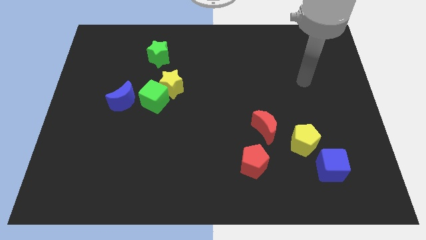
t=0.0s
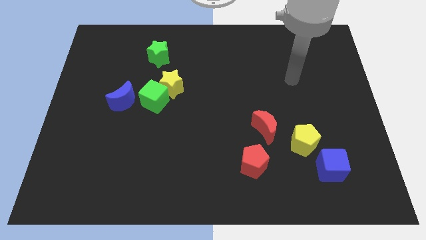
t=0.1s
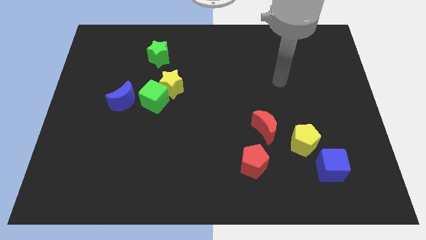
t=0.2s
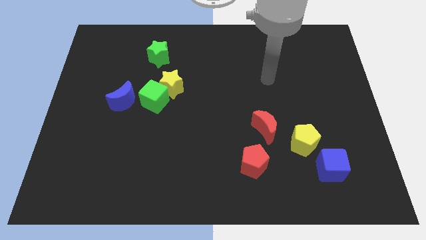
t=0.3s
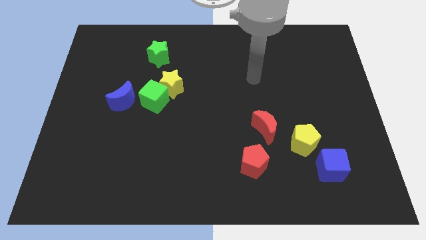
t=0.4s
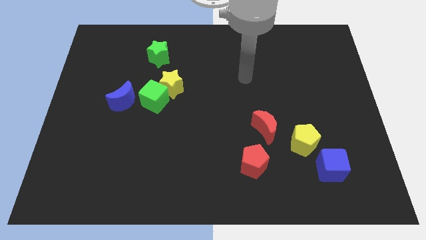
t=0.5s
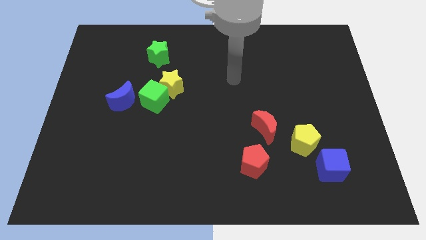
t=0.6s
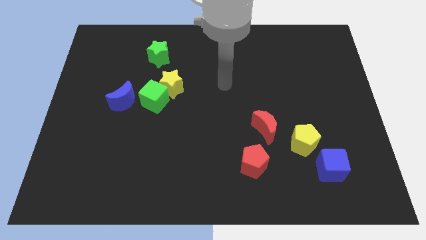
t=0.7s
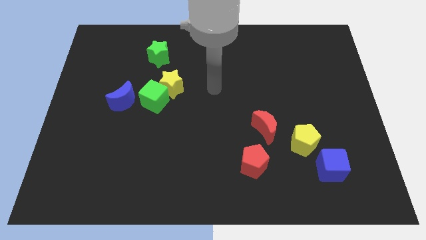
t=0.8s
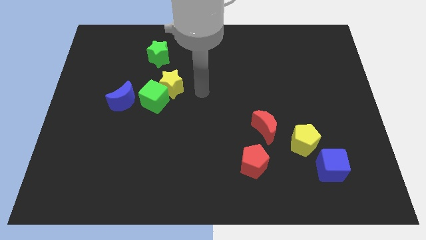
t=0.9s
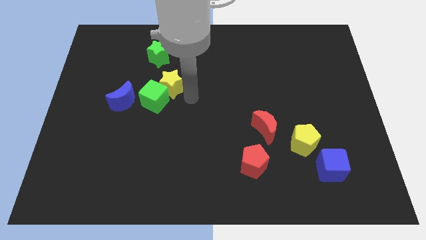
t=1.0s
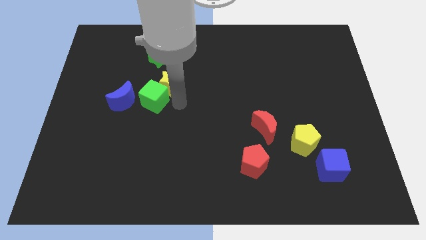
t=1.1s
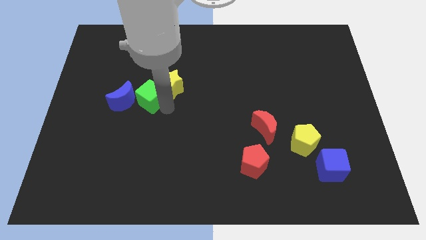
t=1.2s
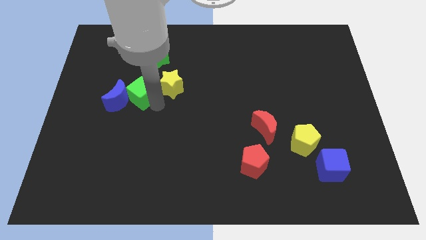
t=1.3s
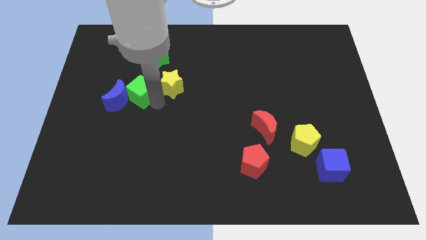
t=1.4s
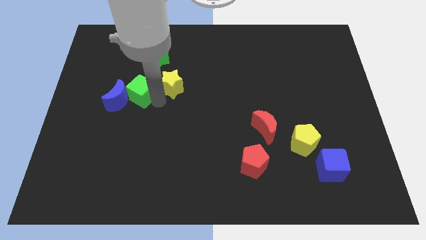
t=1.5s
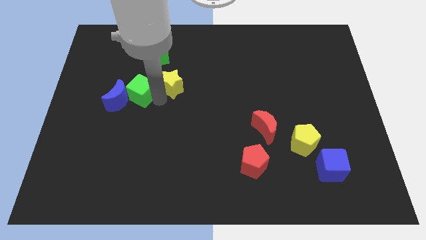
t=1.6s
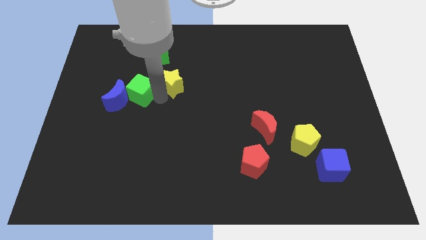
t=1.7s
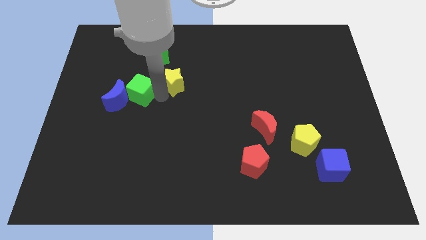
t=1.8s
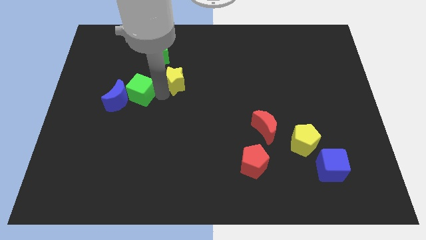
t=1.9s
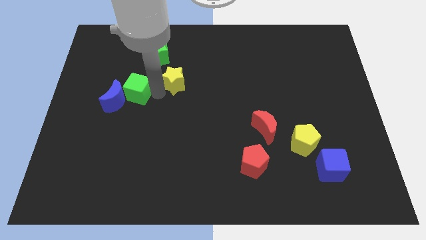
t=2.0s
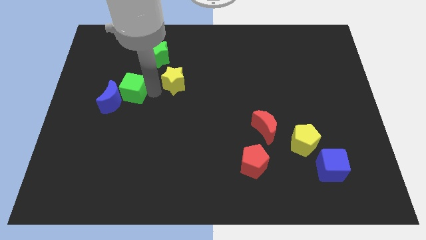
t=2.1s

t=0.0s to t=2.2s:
move the yellow star away from the green cube

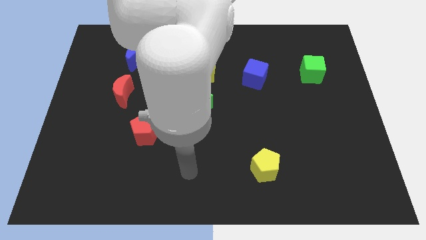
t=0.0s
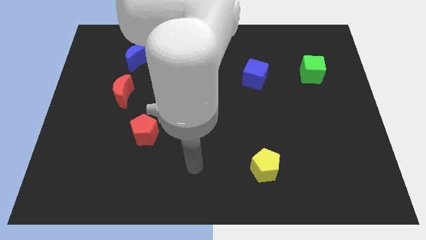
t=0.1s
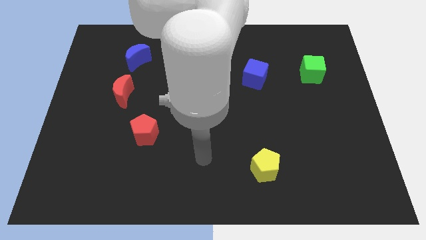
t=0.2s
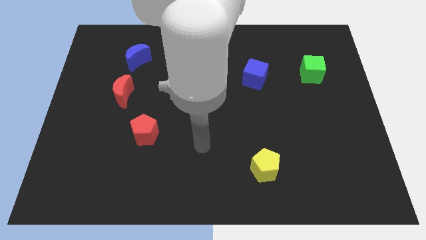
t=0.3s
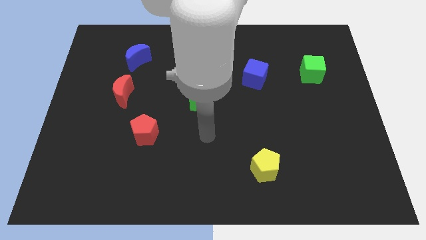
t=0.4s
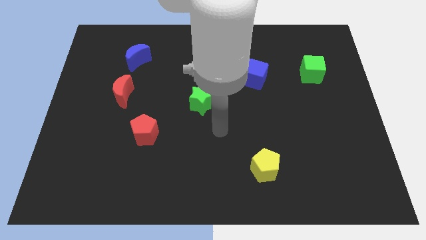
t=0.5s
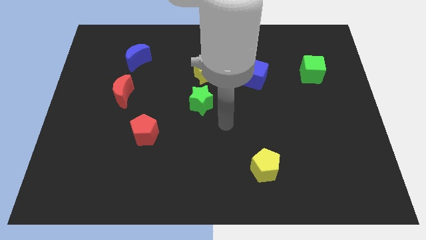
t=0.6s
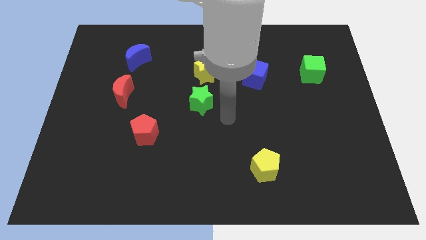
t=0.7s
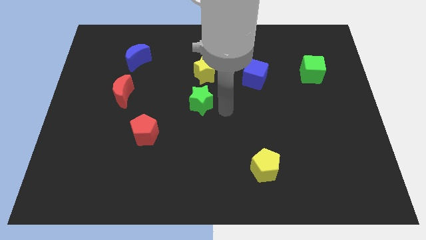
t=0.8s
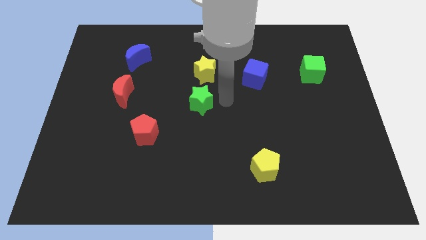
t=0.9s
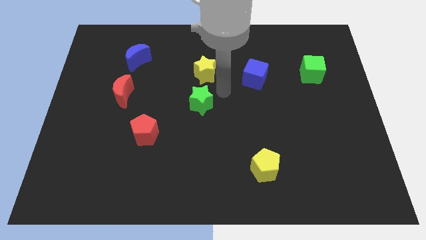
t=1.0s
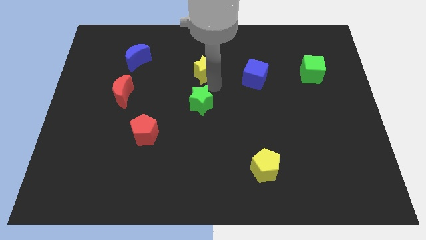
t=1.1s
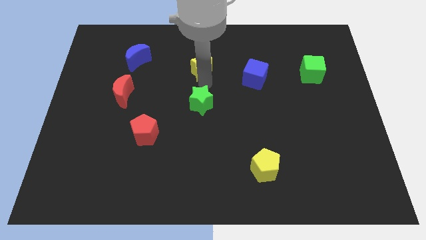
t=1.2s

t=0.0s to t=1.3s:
pull the green star apart from the yellow star

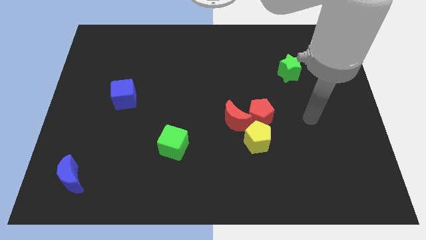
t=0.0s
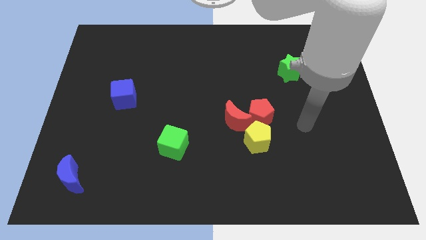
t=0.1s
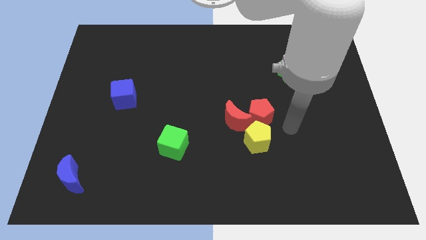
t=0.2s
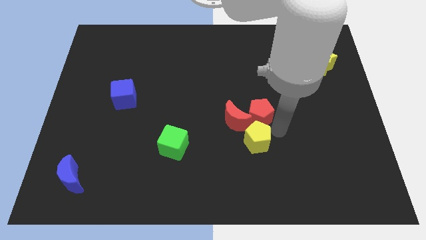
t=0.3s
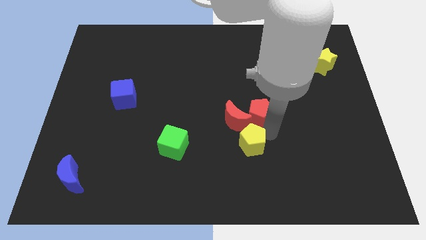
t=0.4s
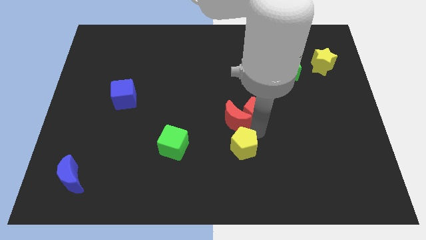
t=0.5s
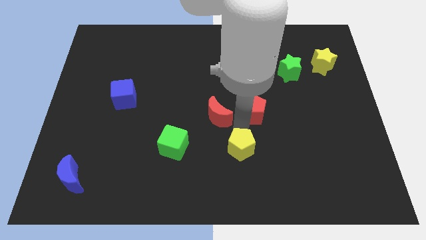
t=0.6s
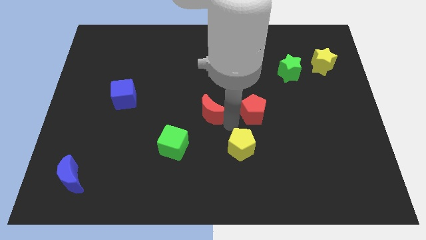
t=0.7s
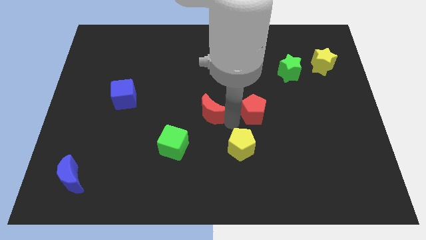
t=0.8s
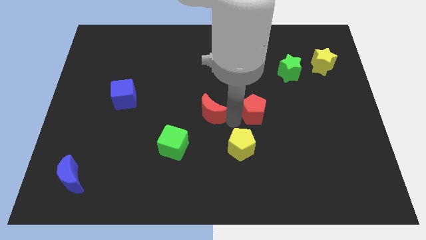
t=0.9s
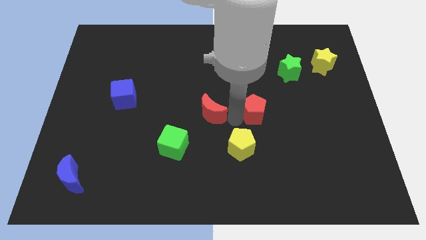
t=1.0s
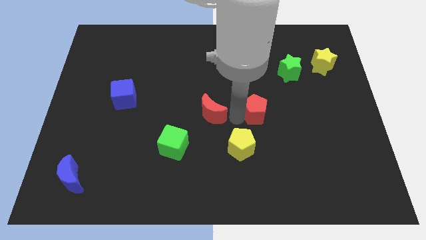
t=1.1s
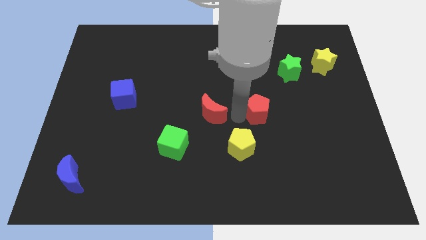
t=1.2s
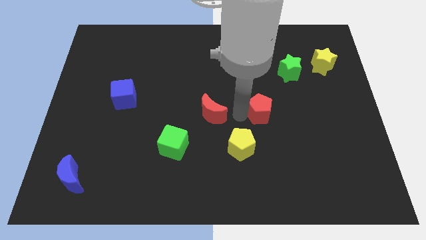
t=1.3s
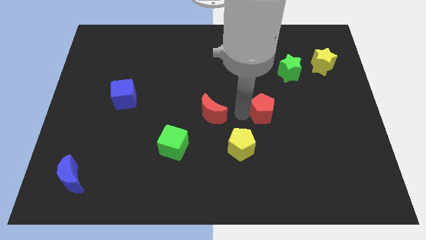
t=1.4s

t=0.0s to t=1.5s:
separate the red pentagon from the red moon and yellow pentagon

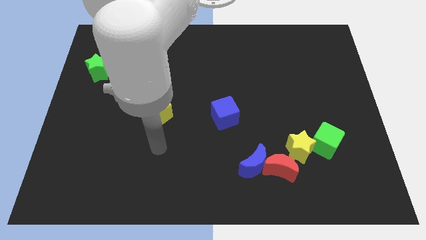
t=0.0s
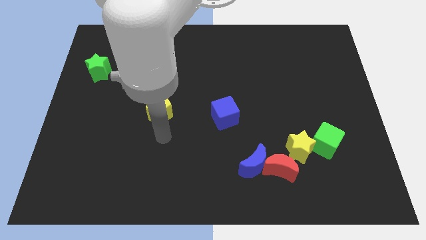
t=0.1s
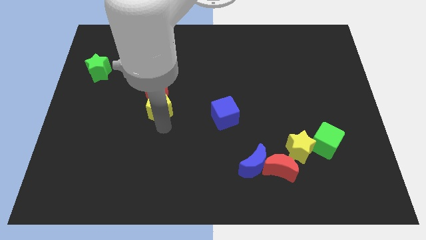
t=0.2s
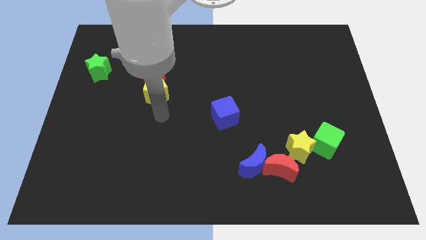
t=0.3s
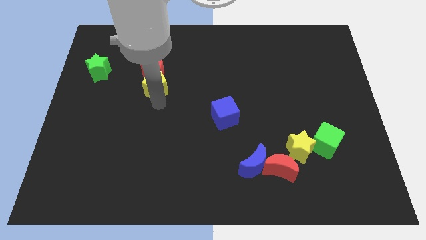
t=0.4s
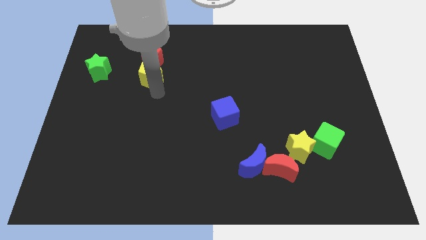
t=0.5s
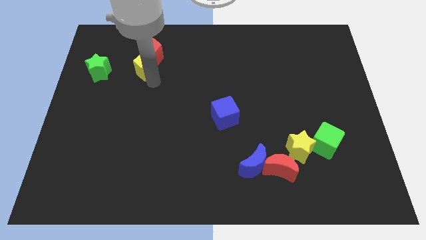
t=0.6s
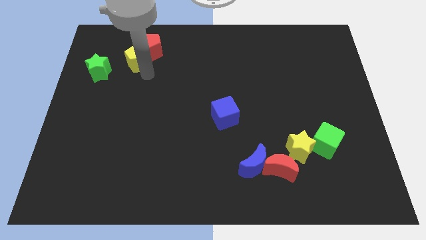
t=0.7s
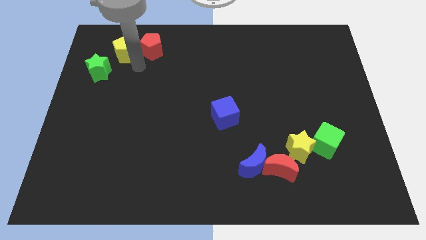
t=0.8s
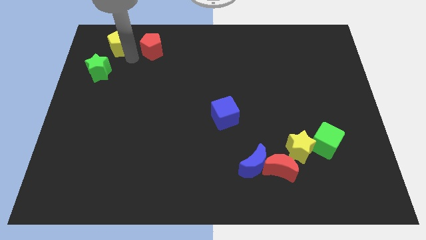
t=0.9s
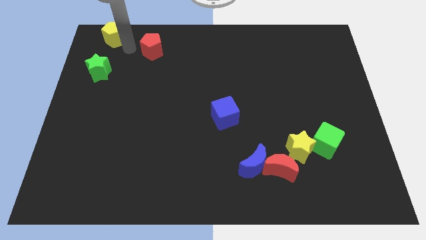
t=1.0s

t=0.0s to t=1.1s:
move the red pentagon away from the yellow pentagon

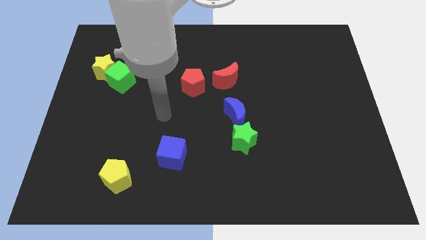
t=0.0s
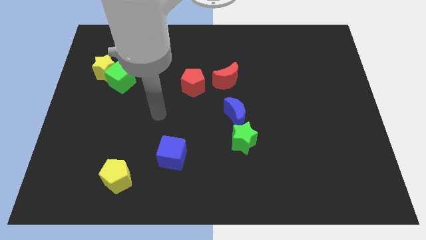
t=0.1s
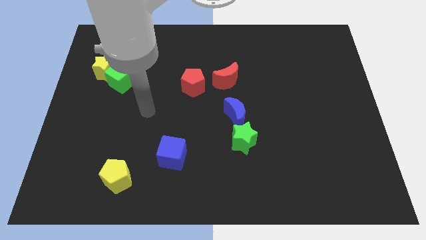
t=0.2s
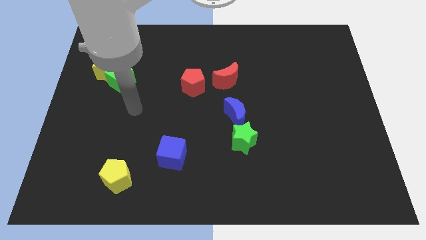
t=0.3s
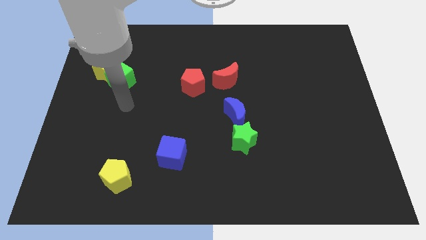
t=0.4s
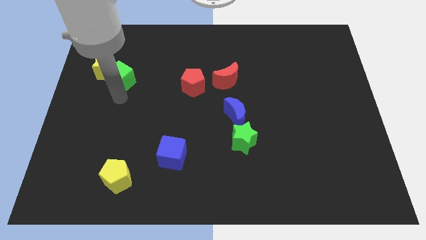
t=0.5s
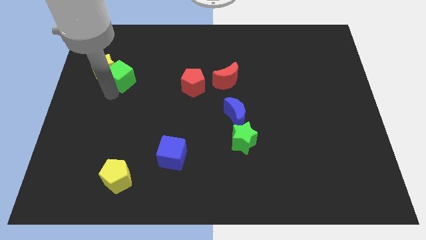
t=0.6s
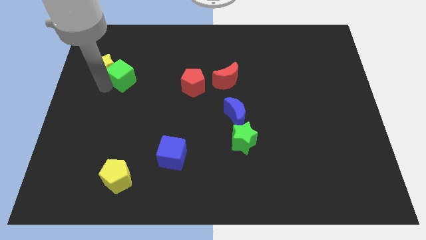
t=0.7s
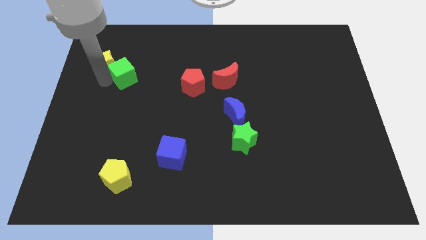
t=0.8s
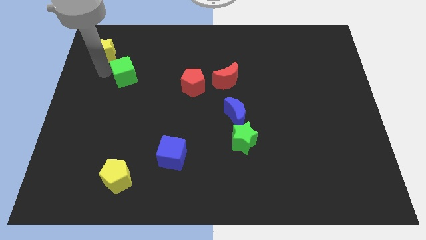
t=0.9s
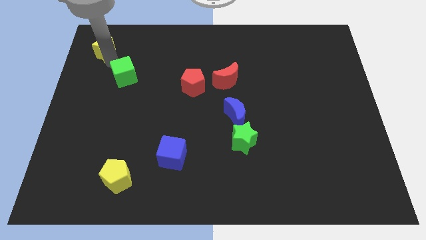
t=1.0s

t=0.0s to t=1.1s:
separate the green cube from the yellow star

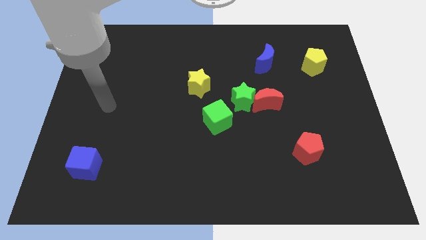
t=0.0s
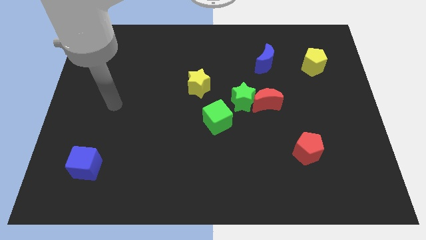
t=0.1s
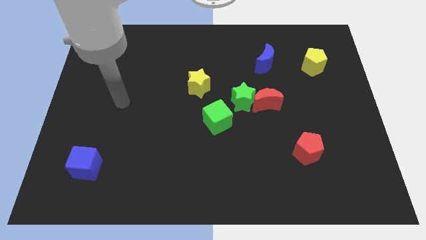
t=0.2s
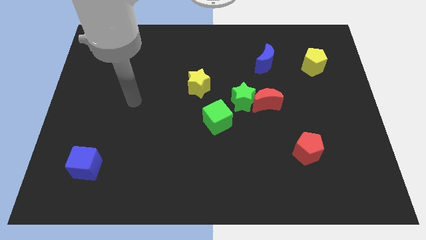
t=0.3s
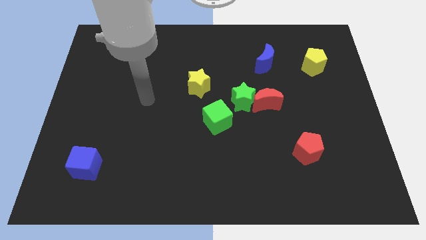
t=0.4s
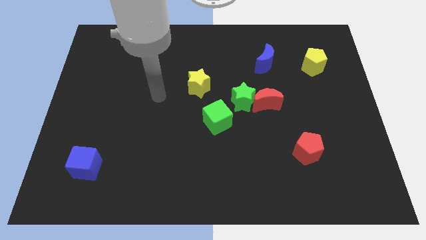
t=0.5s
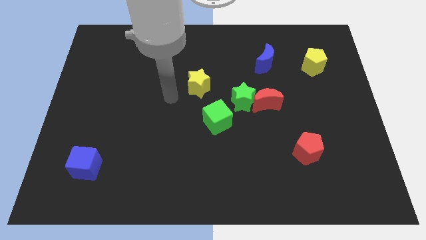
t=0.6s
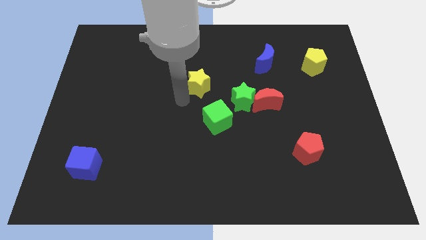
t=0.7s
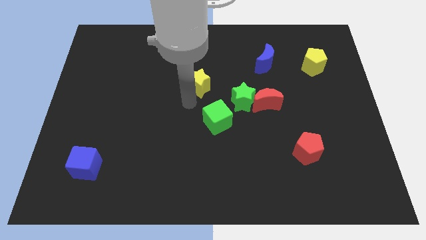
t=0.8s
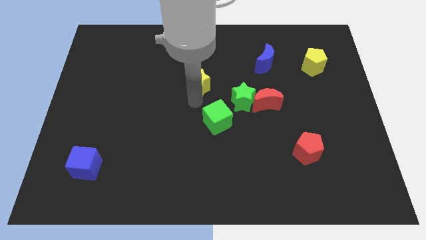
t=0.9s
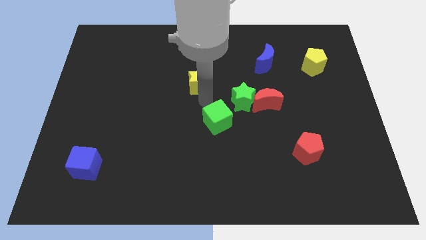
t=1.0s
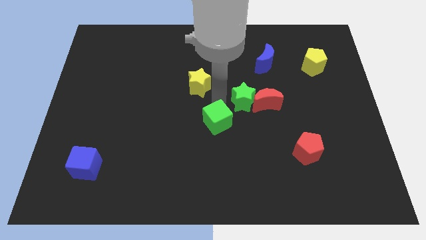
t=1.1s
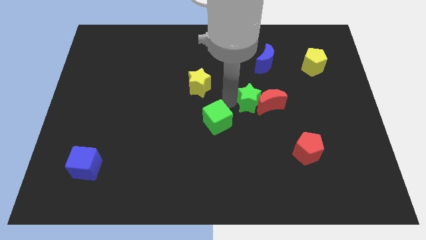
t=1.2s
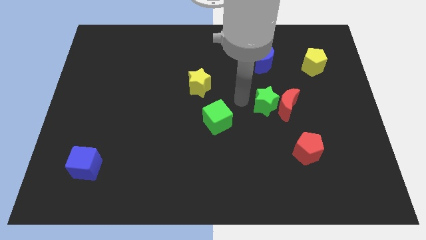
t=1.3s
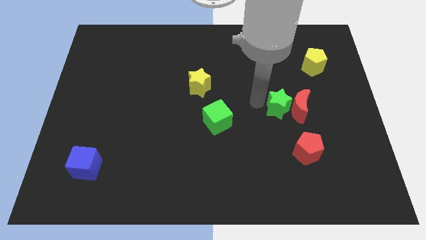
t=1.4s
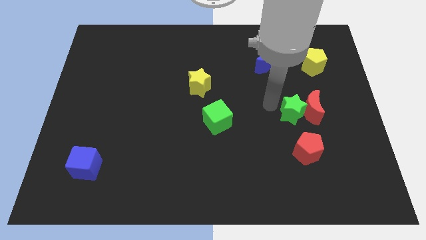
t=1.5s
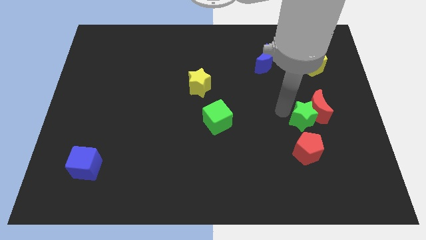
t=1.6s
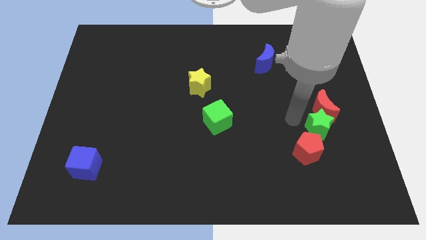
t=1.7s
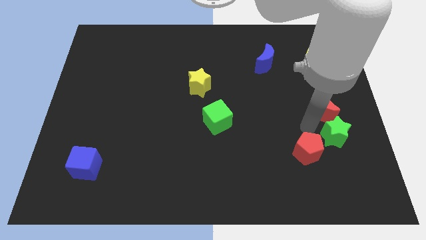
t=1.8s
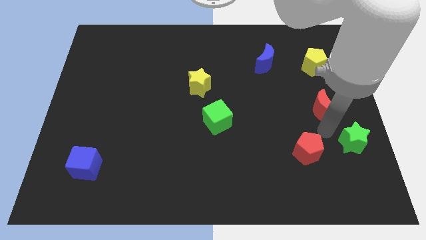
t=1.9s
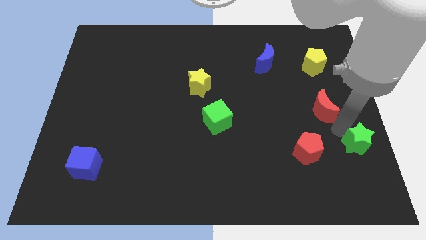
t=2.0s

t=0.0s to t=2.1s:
move the red moon away from the green star
